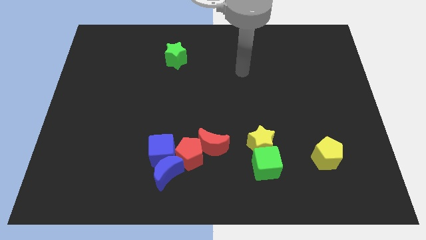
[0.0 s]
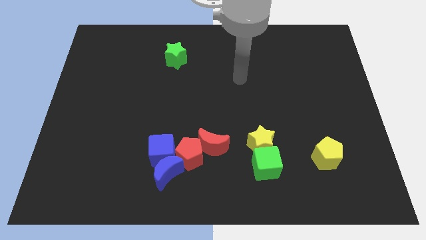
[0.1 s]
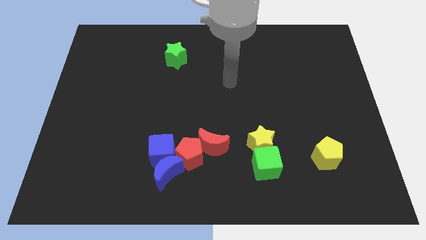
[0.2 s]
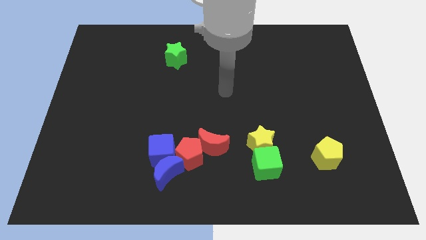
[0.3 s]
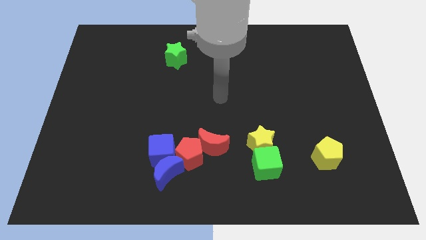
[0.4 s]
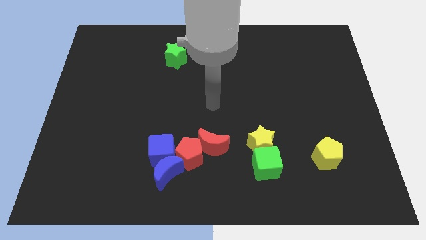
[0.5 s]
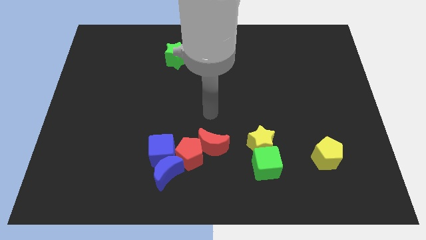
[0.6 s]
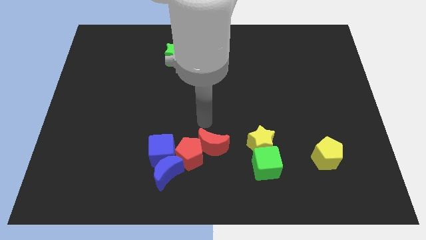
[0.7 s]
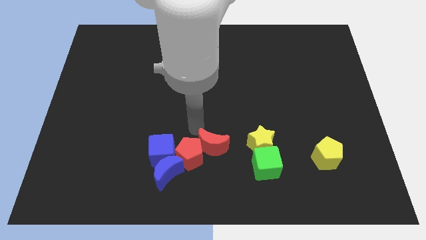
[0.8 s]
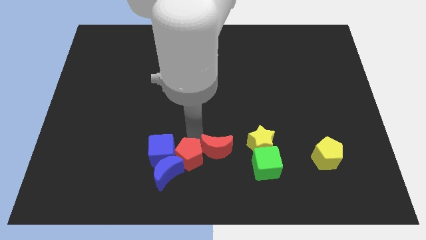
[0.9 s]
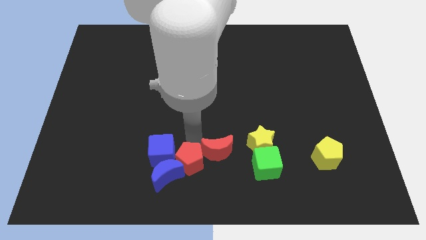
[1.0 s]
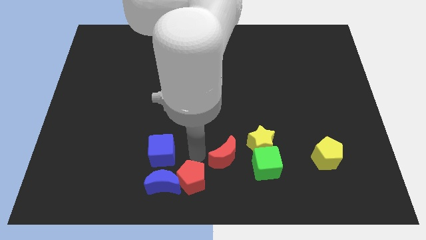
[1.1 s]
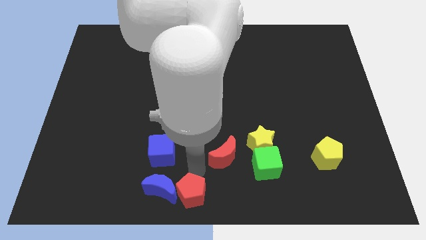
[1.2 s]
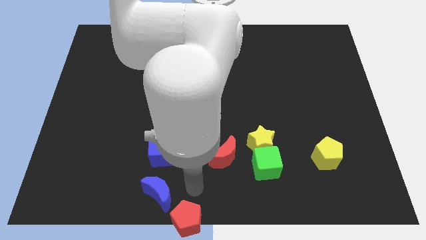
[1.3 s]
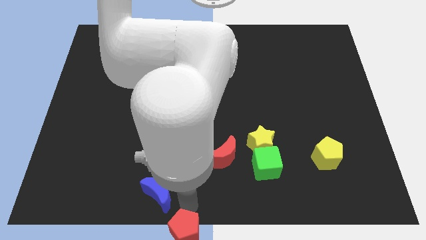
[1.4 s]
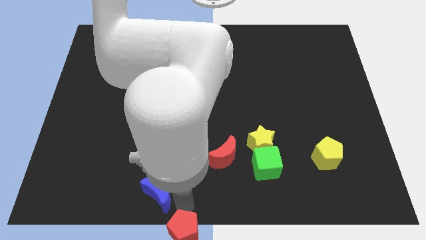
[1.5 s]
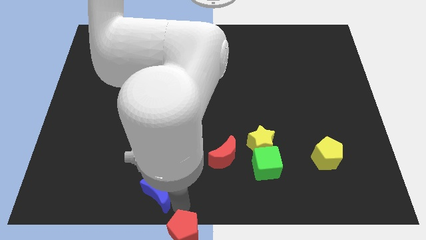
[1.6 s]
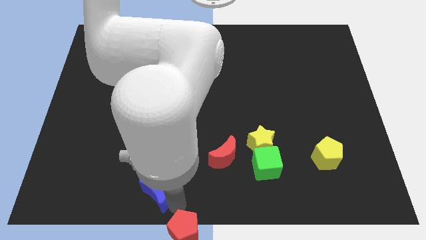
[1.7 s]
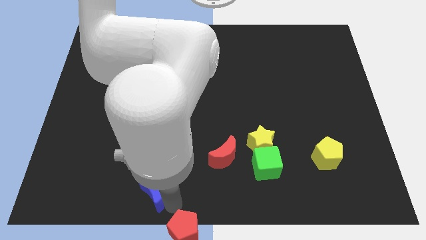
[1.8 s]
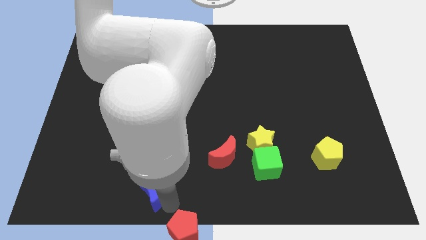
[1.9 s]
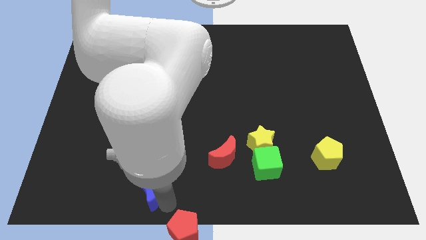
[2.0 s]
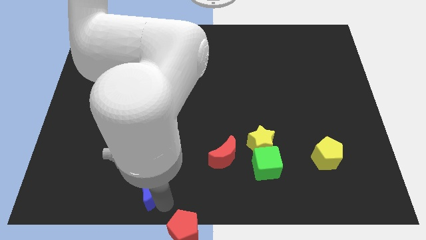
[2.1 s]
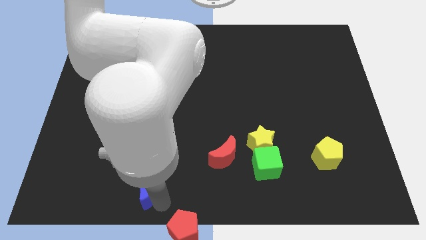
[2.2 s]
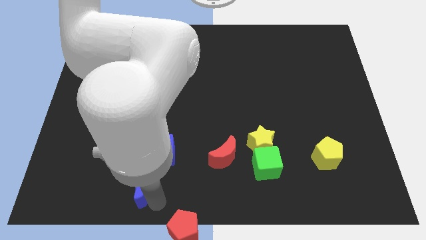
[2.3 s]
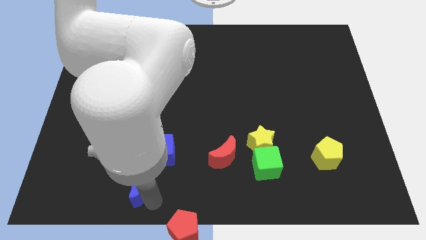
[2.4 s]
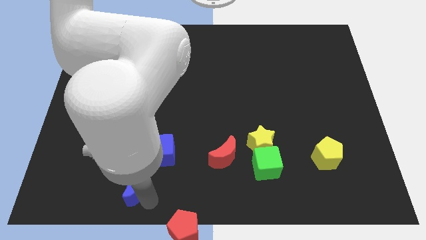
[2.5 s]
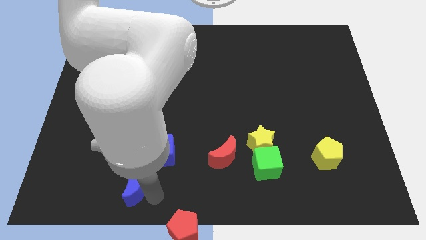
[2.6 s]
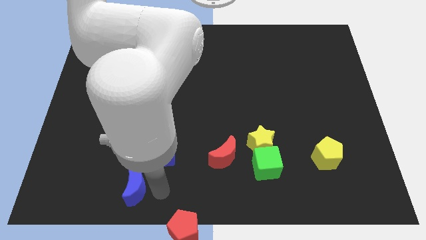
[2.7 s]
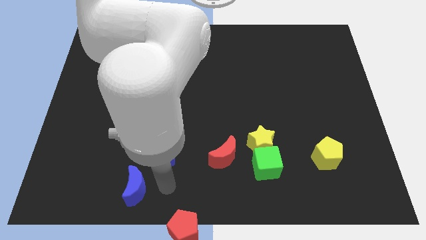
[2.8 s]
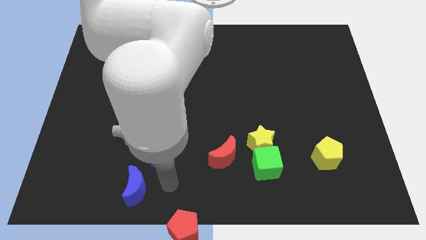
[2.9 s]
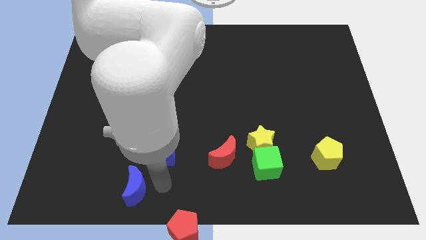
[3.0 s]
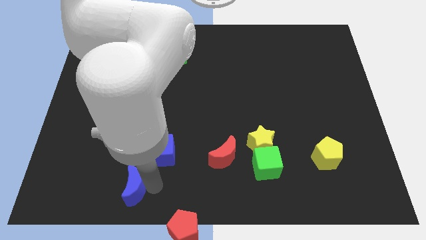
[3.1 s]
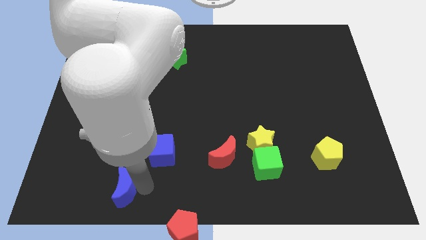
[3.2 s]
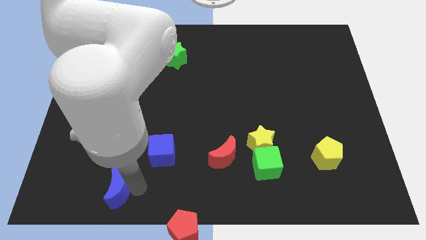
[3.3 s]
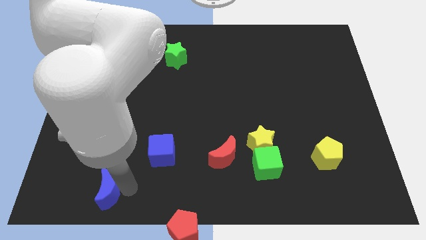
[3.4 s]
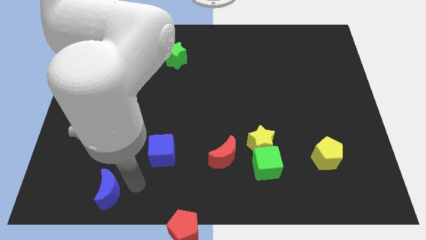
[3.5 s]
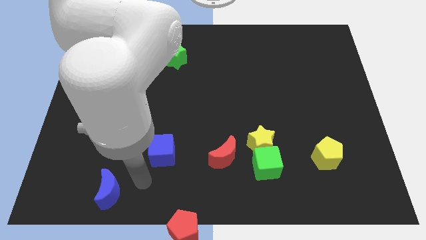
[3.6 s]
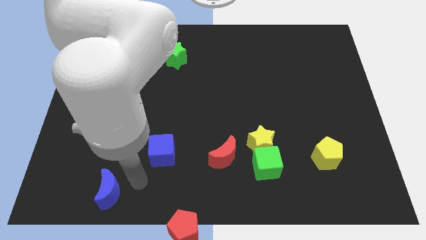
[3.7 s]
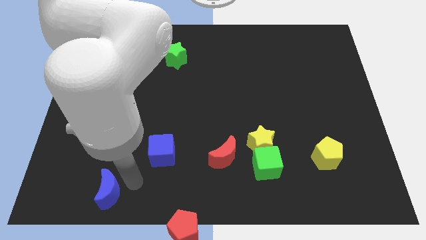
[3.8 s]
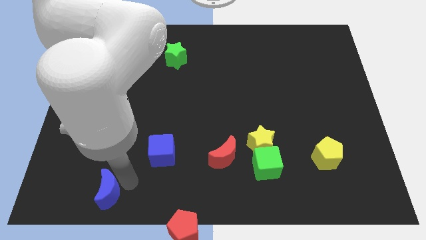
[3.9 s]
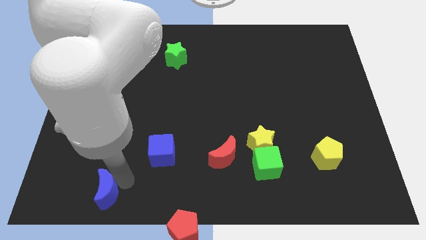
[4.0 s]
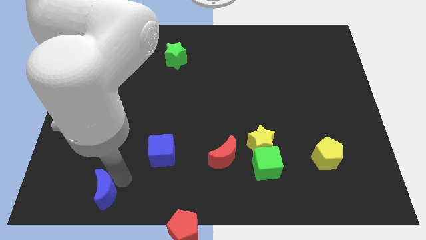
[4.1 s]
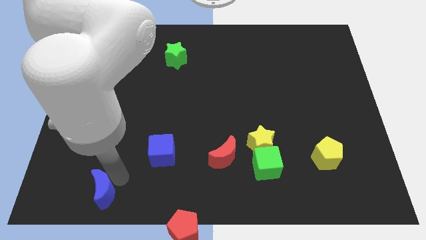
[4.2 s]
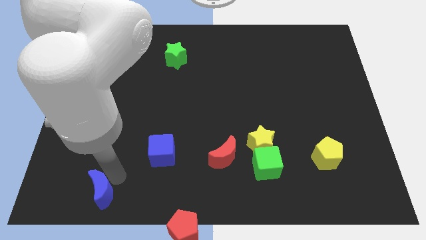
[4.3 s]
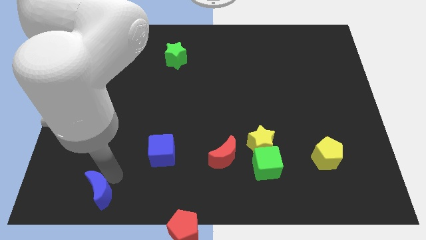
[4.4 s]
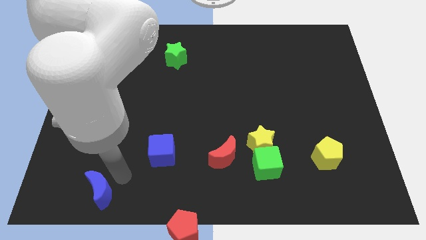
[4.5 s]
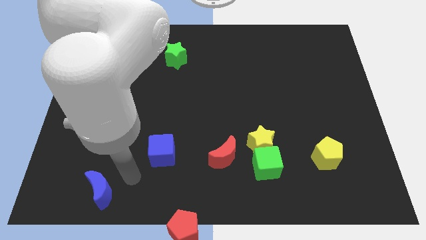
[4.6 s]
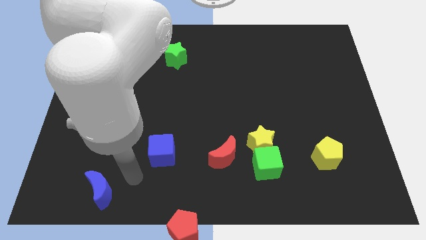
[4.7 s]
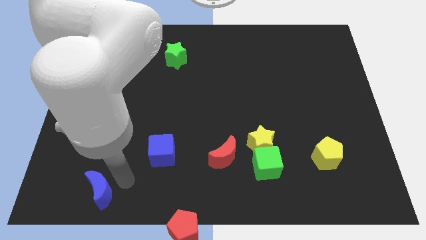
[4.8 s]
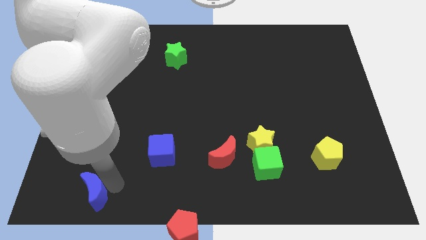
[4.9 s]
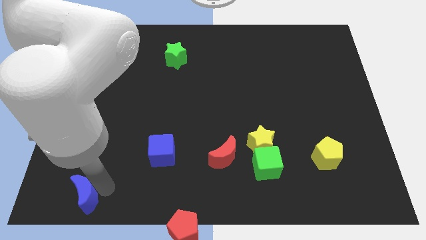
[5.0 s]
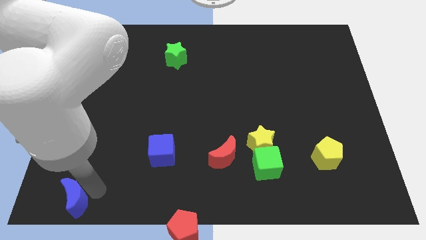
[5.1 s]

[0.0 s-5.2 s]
slide the blue moon to the bottom left
